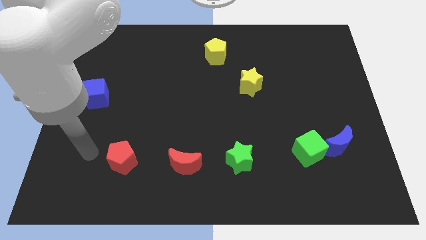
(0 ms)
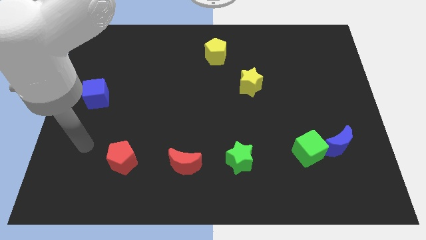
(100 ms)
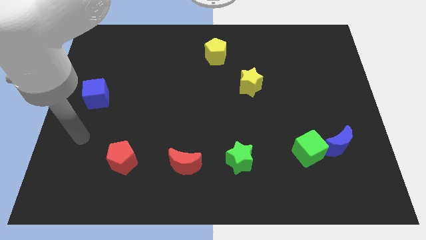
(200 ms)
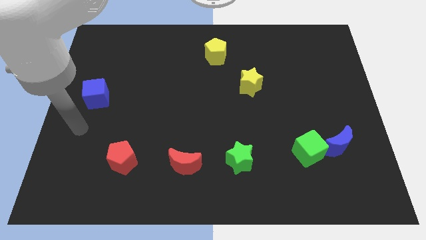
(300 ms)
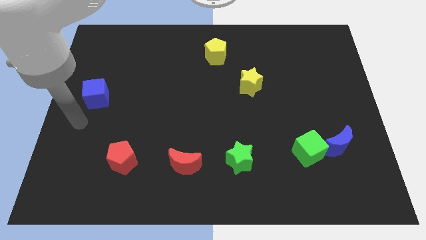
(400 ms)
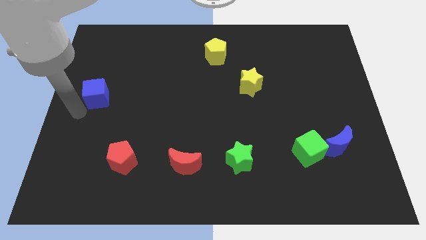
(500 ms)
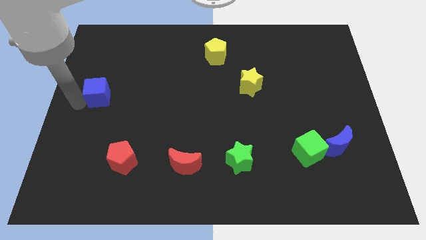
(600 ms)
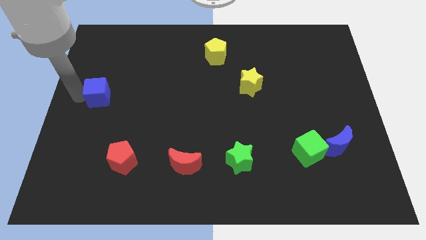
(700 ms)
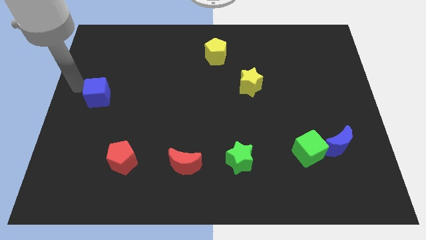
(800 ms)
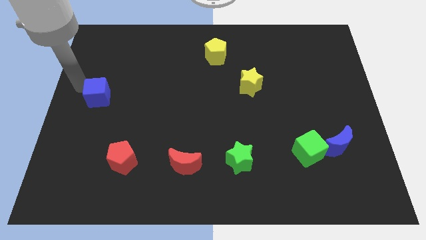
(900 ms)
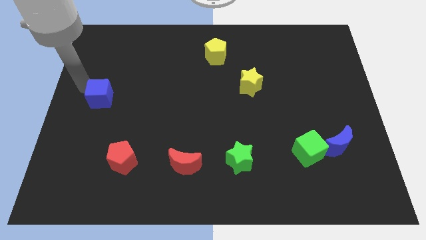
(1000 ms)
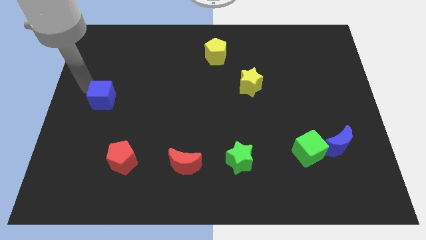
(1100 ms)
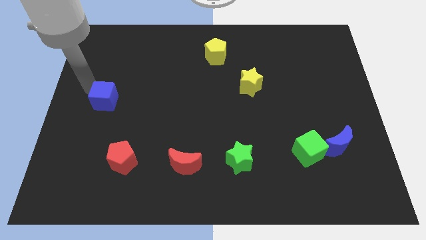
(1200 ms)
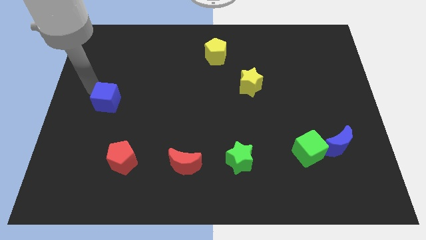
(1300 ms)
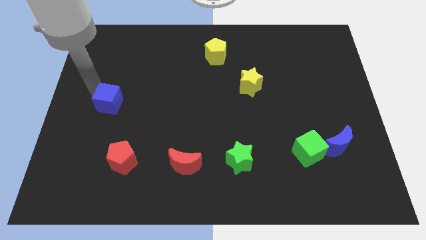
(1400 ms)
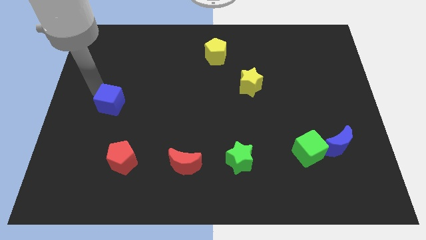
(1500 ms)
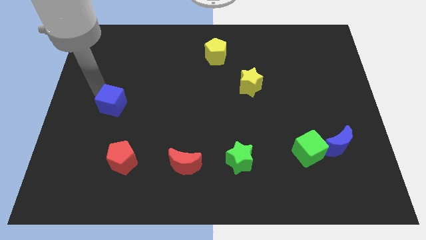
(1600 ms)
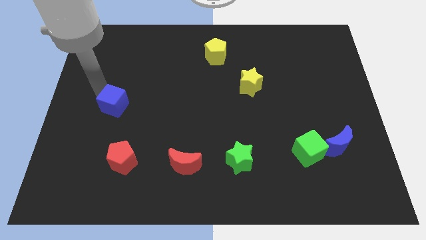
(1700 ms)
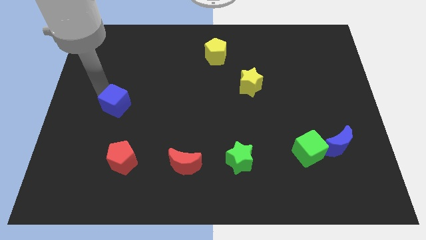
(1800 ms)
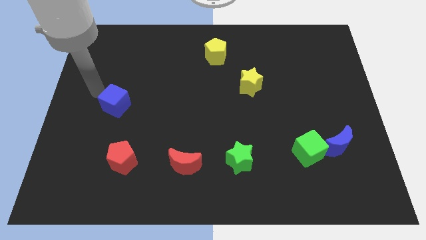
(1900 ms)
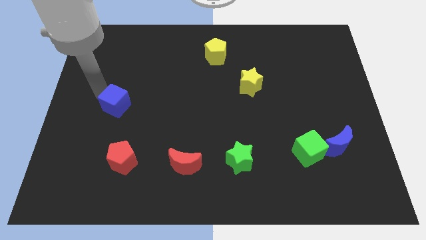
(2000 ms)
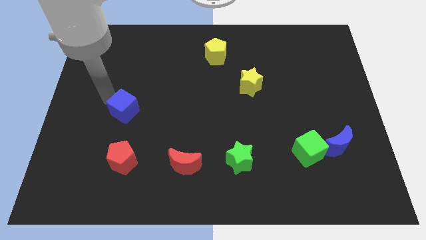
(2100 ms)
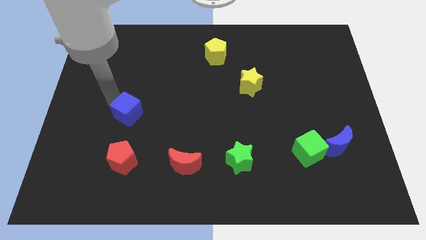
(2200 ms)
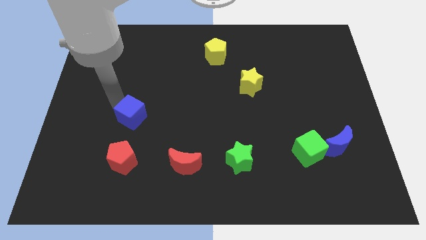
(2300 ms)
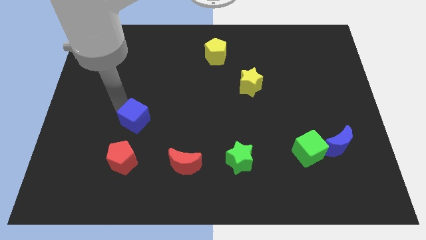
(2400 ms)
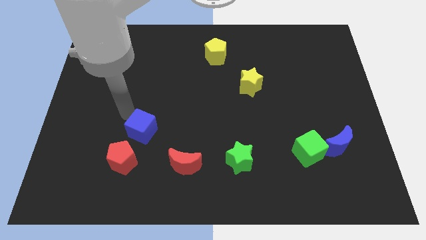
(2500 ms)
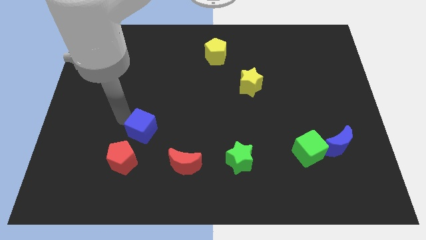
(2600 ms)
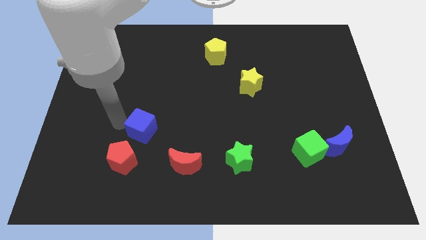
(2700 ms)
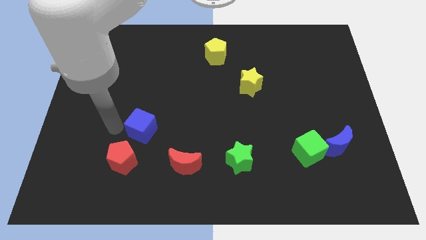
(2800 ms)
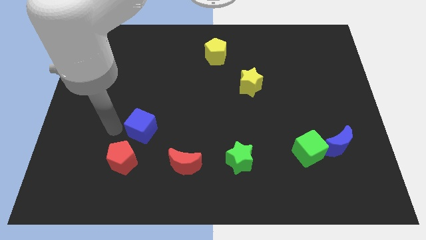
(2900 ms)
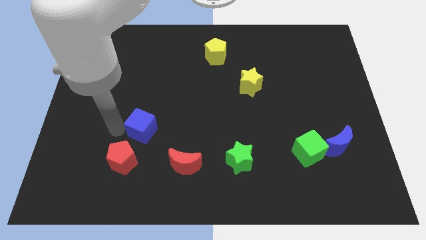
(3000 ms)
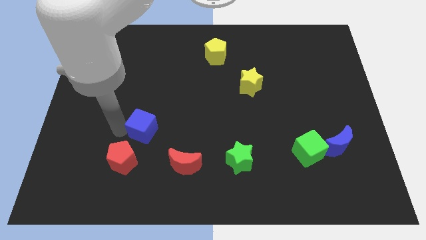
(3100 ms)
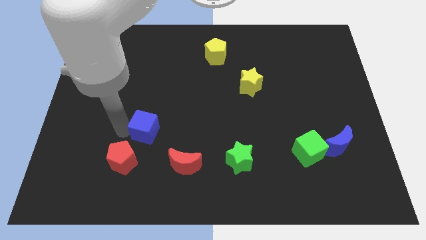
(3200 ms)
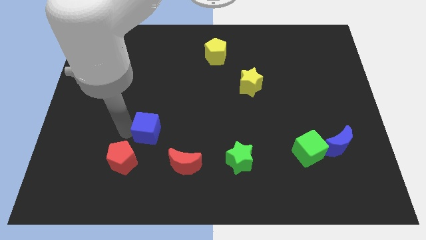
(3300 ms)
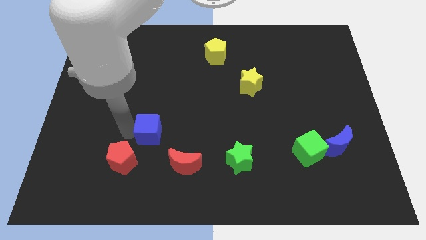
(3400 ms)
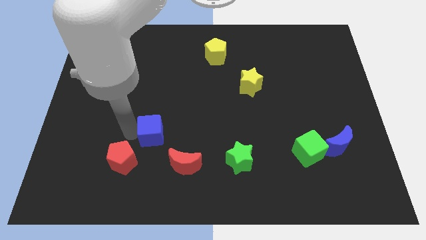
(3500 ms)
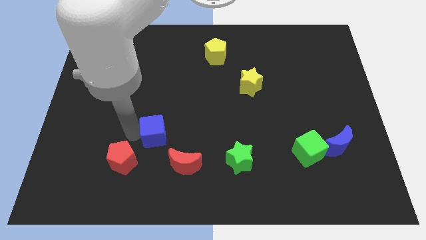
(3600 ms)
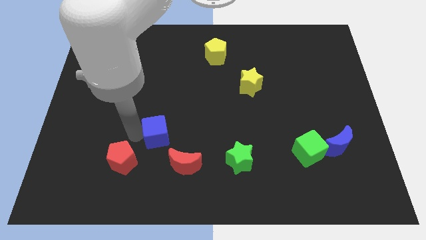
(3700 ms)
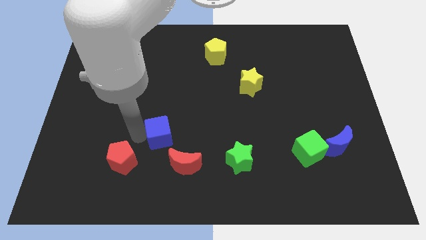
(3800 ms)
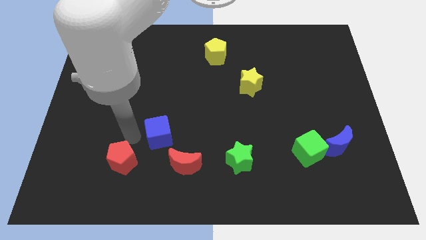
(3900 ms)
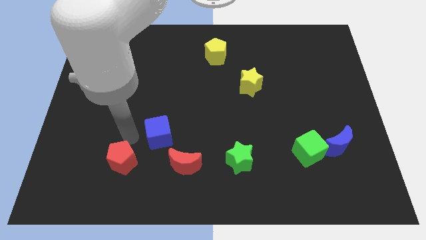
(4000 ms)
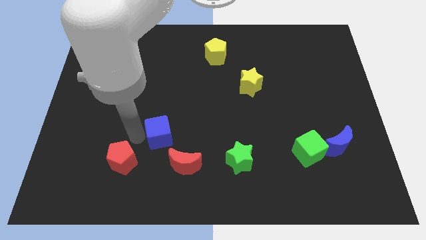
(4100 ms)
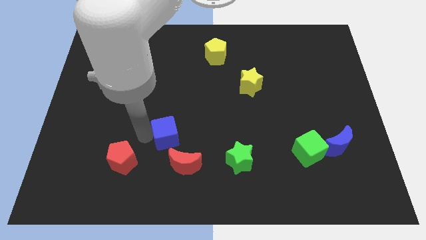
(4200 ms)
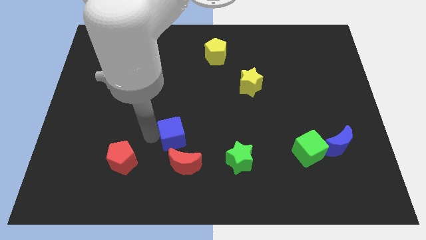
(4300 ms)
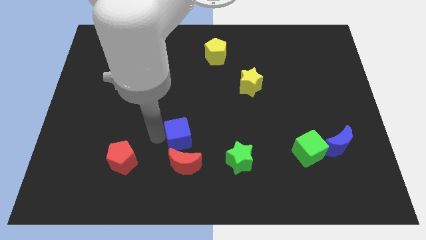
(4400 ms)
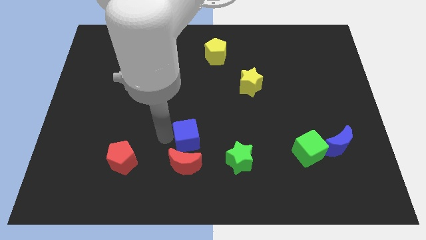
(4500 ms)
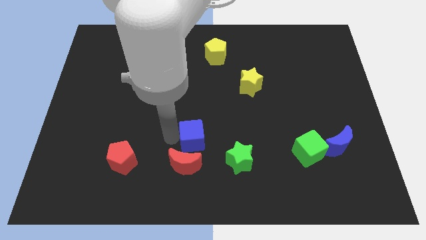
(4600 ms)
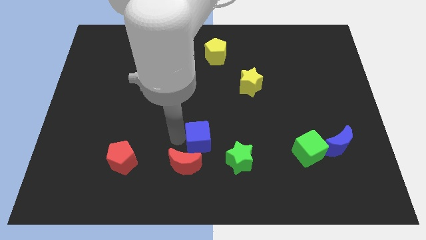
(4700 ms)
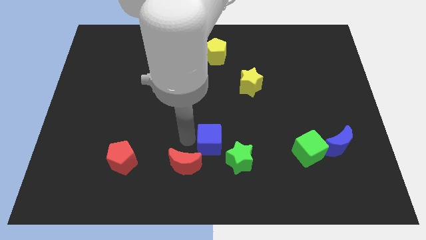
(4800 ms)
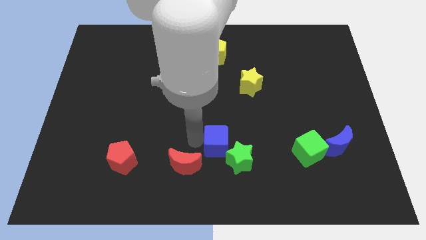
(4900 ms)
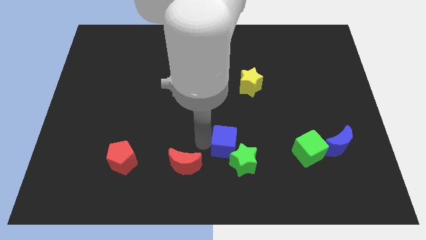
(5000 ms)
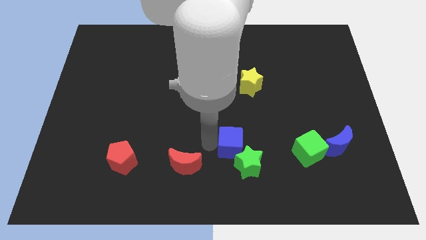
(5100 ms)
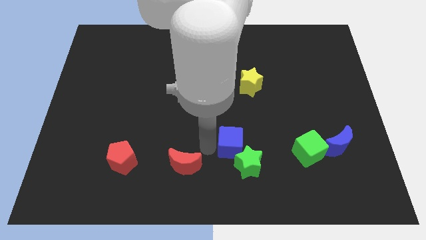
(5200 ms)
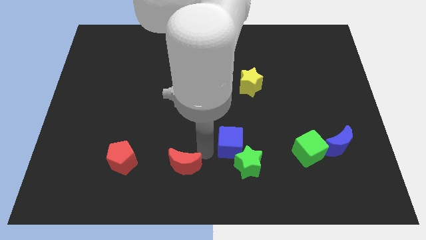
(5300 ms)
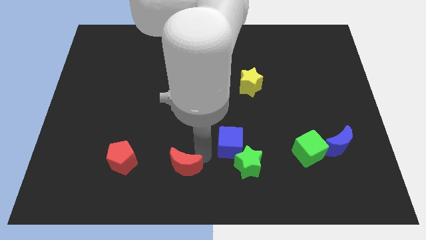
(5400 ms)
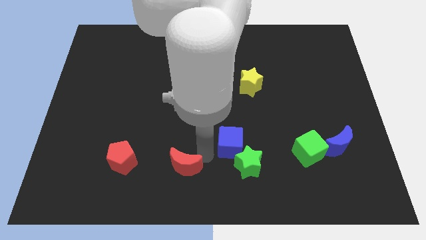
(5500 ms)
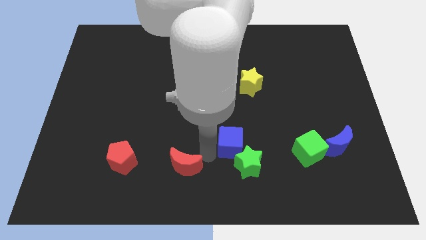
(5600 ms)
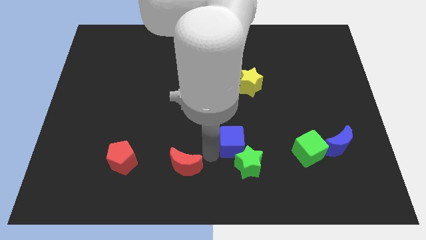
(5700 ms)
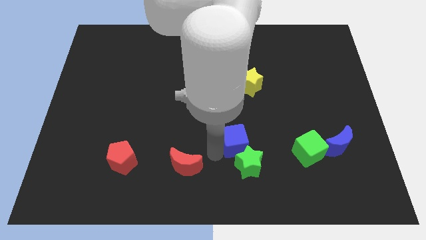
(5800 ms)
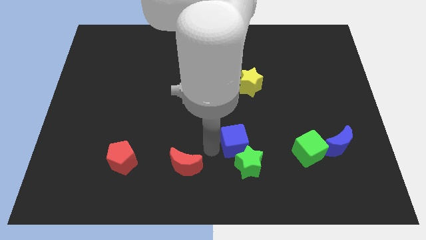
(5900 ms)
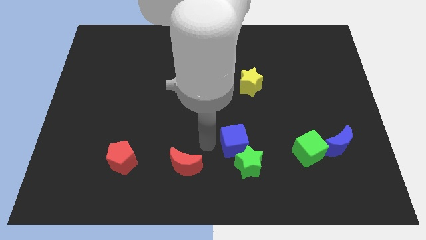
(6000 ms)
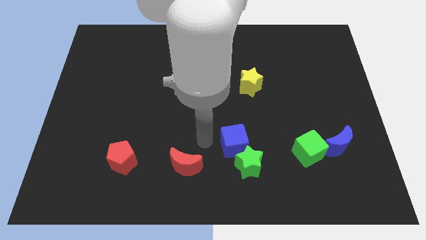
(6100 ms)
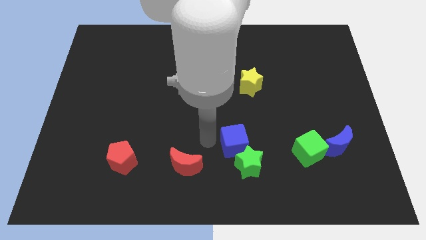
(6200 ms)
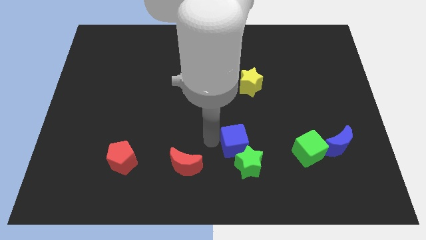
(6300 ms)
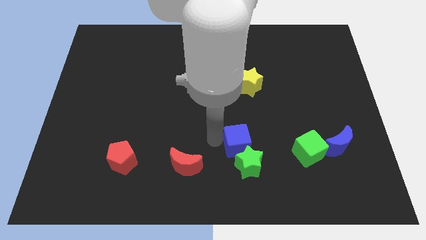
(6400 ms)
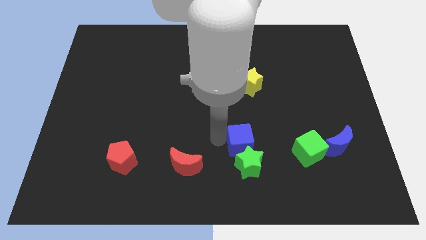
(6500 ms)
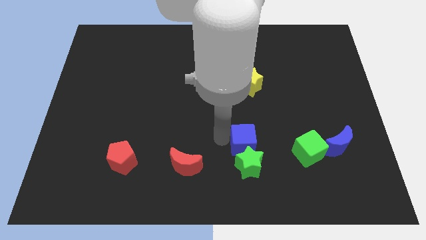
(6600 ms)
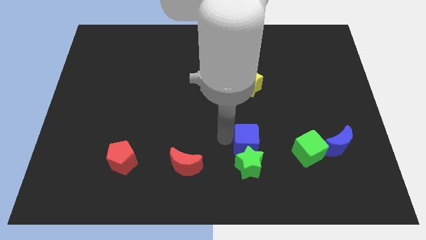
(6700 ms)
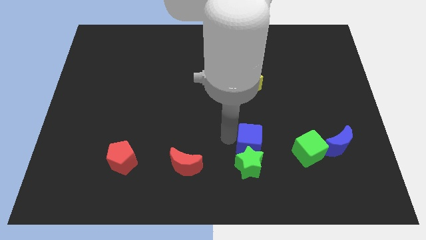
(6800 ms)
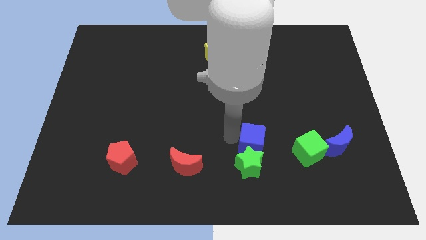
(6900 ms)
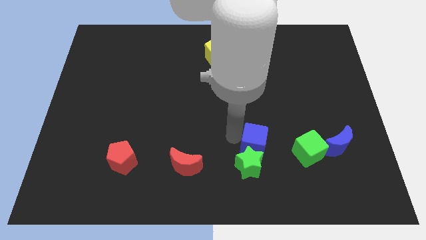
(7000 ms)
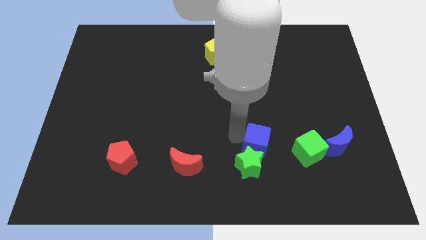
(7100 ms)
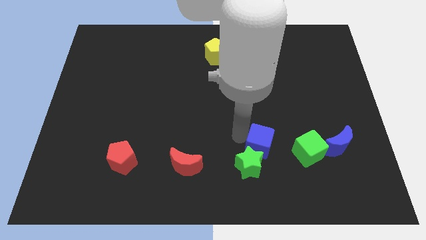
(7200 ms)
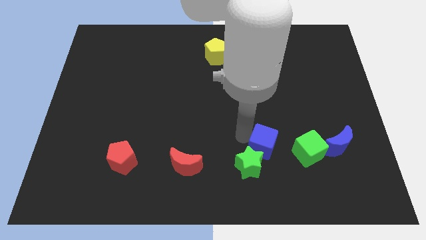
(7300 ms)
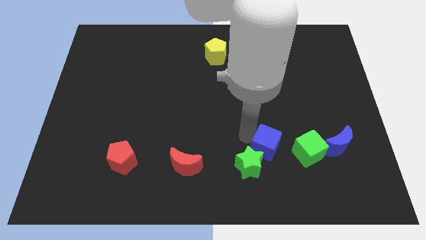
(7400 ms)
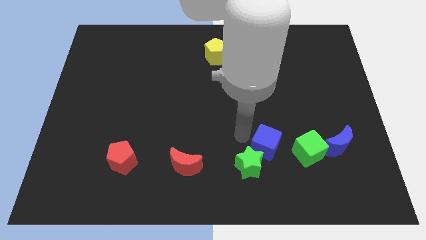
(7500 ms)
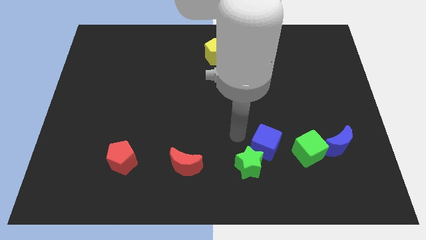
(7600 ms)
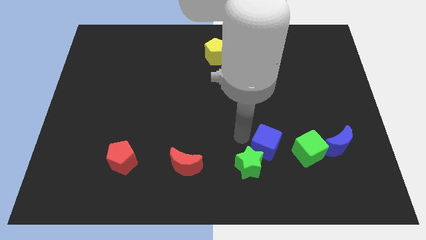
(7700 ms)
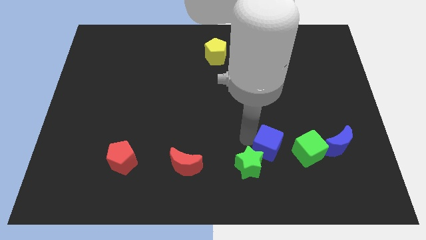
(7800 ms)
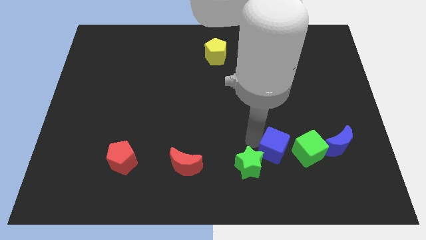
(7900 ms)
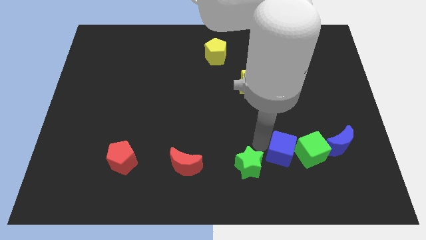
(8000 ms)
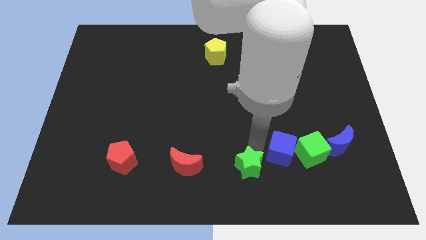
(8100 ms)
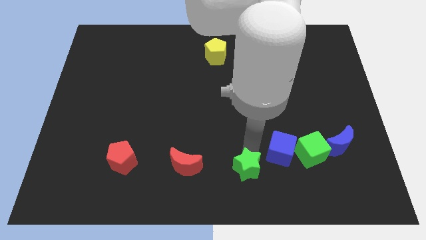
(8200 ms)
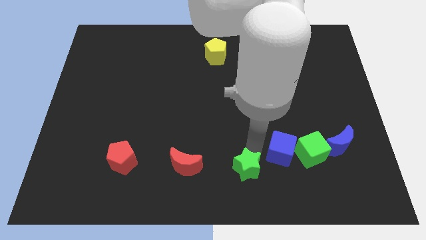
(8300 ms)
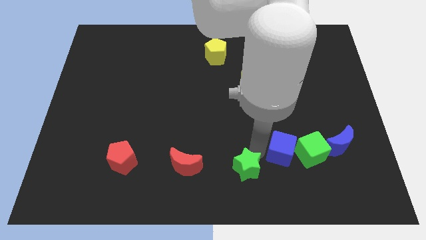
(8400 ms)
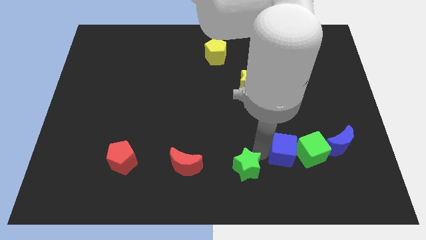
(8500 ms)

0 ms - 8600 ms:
push the blue cube close to the green cube
